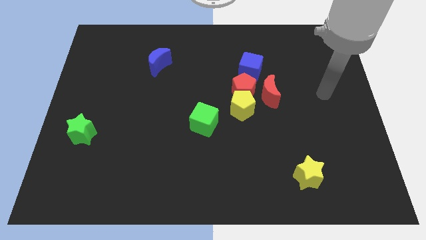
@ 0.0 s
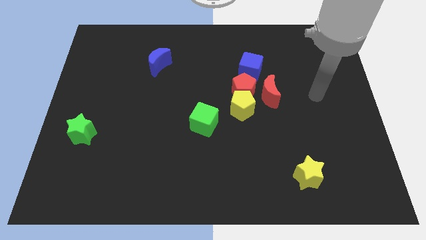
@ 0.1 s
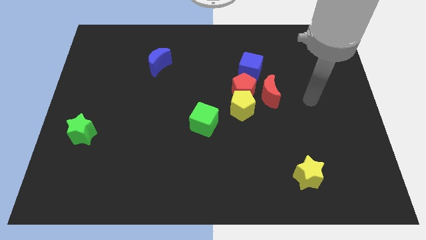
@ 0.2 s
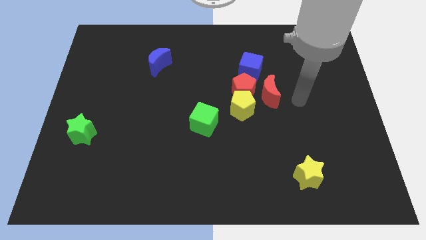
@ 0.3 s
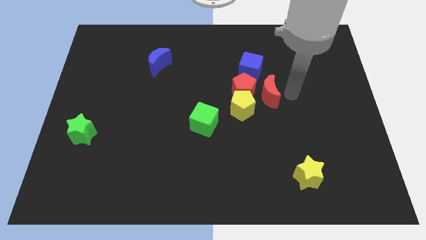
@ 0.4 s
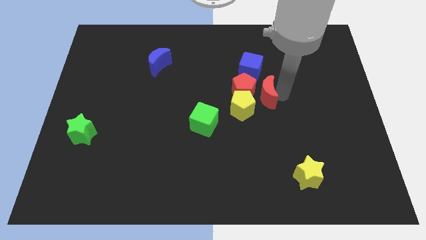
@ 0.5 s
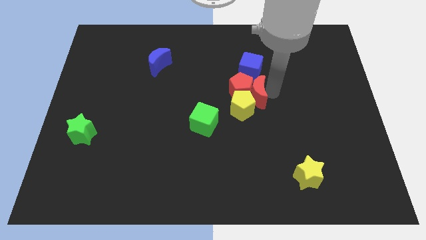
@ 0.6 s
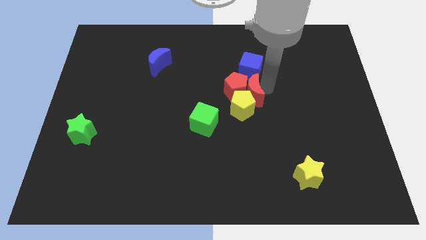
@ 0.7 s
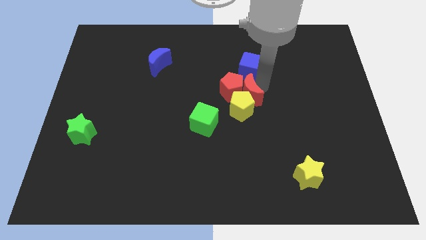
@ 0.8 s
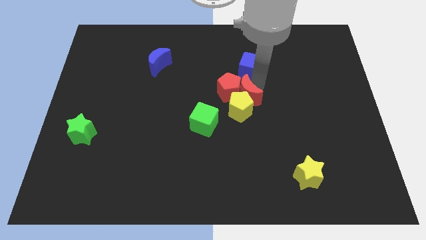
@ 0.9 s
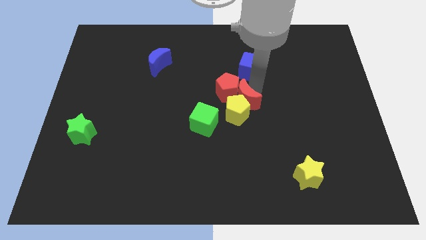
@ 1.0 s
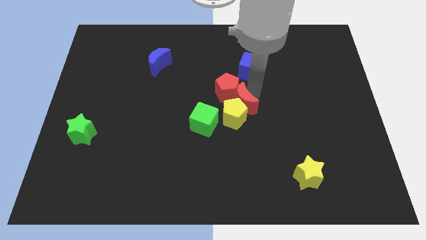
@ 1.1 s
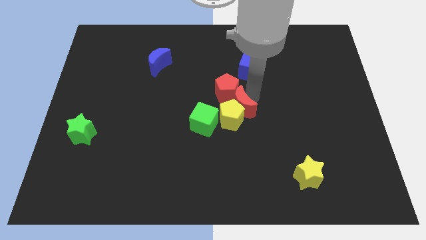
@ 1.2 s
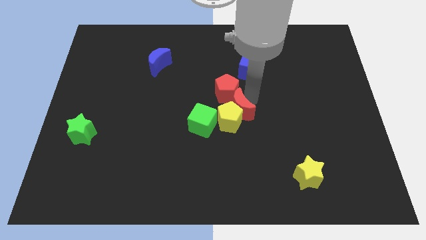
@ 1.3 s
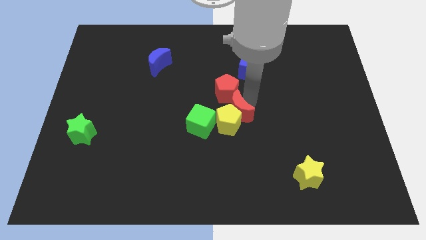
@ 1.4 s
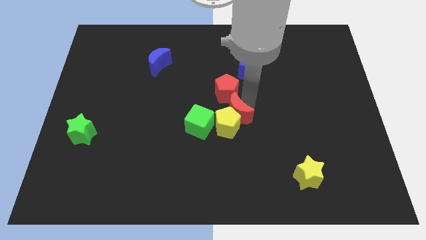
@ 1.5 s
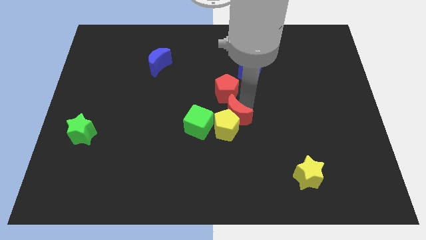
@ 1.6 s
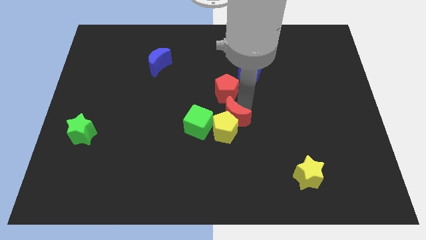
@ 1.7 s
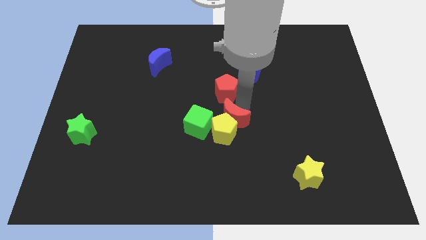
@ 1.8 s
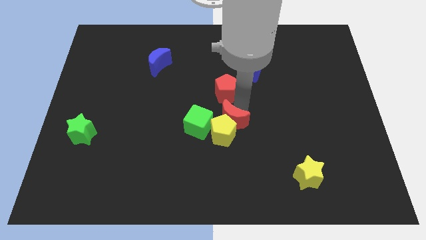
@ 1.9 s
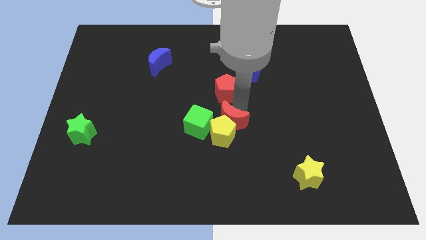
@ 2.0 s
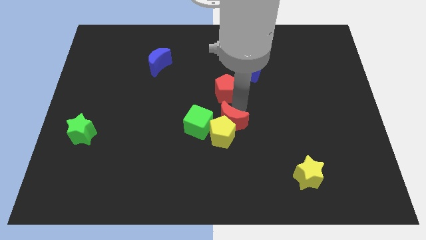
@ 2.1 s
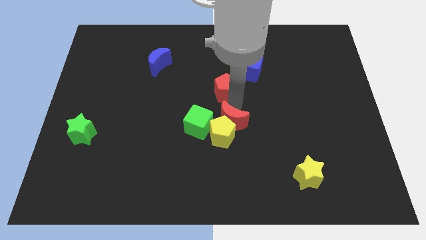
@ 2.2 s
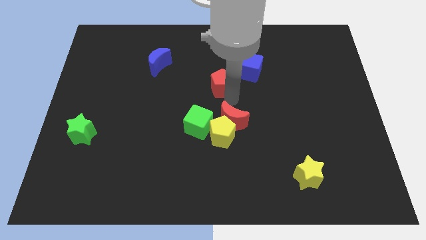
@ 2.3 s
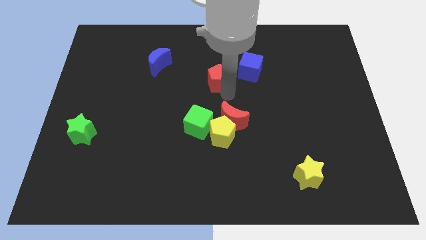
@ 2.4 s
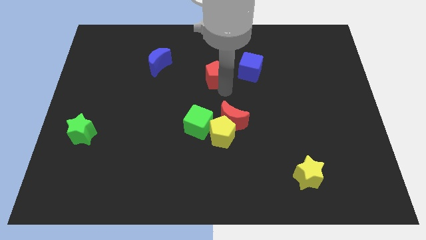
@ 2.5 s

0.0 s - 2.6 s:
separate the red pentagon from the group of blocks

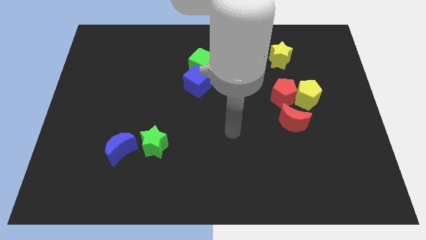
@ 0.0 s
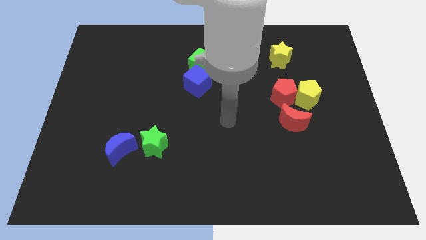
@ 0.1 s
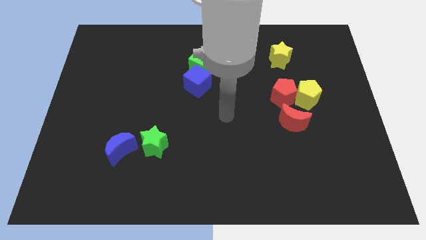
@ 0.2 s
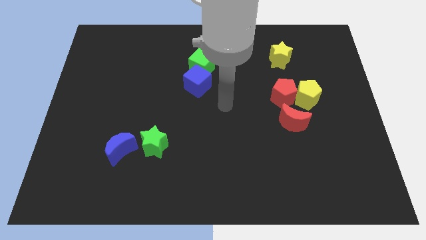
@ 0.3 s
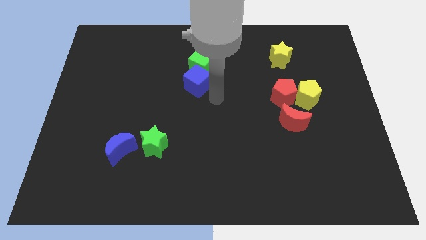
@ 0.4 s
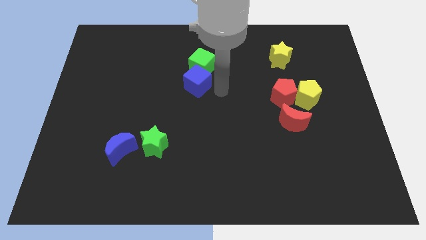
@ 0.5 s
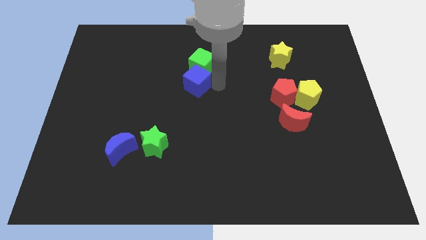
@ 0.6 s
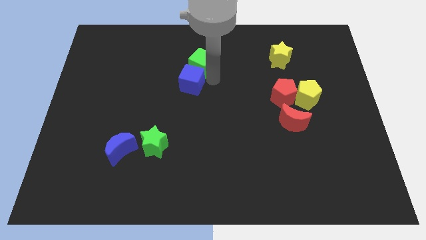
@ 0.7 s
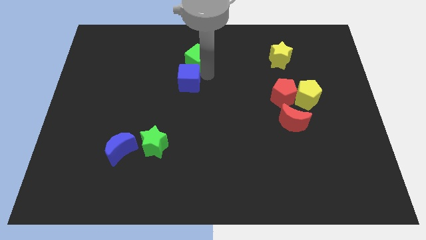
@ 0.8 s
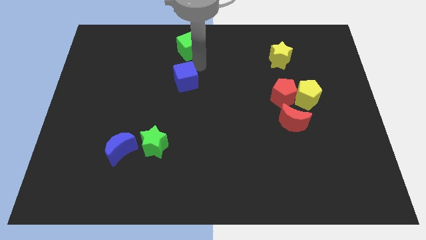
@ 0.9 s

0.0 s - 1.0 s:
pull the blue cube apart from the green cube
